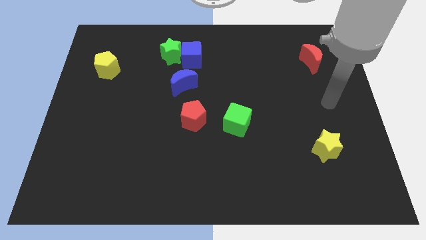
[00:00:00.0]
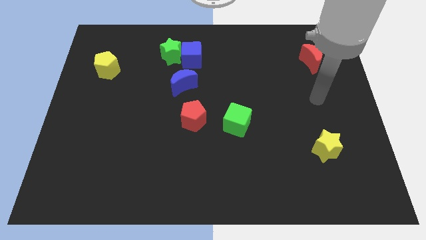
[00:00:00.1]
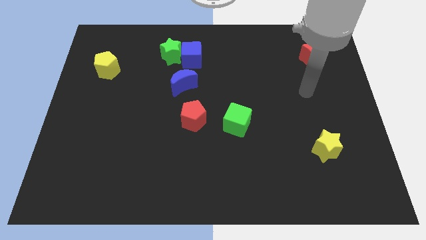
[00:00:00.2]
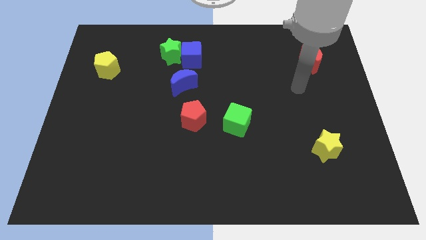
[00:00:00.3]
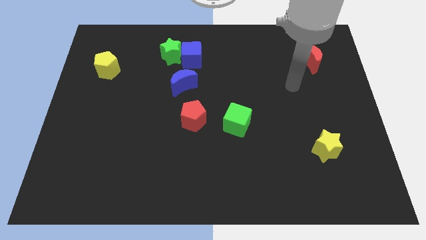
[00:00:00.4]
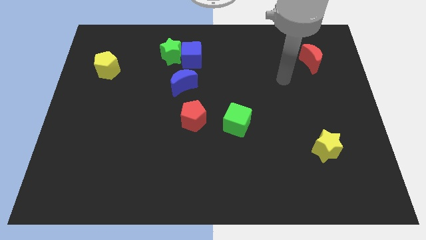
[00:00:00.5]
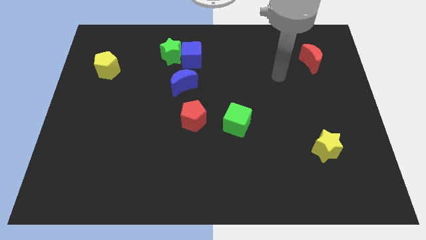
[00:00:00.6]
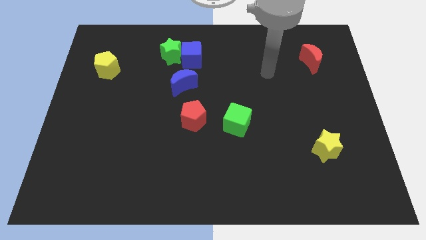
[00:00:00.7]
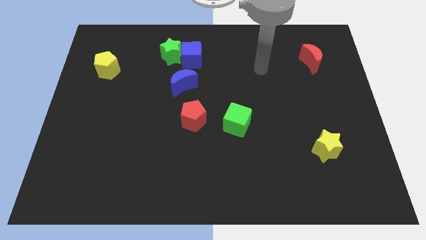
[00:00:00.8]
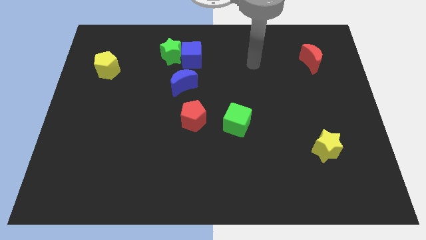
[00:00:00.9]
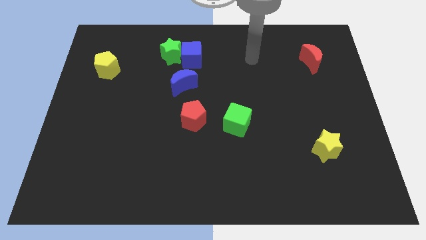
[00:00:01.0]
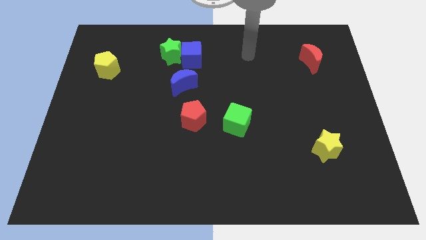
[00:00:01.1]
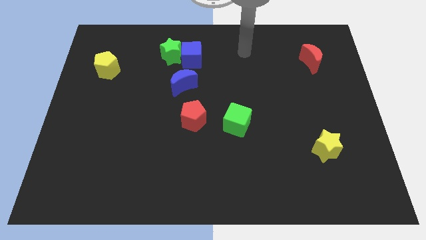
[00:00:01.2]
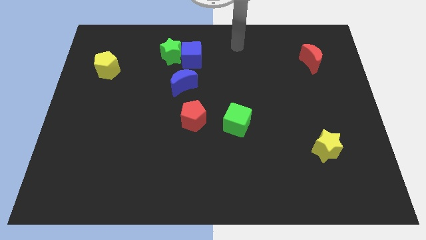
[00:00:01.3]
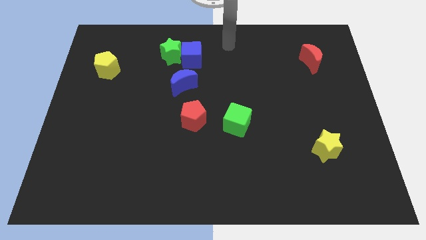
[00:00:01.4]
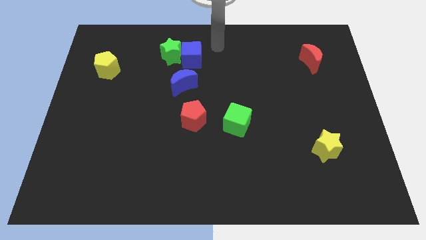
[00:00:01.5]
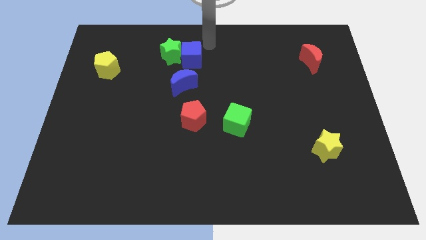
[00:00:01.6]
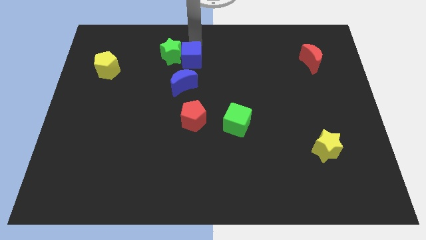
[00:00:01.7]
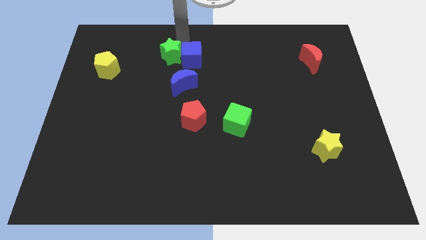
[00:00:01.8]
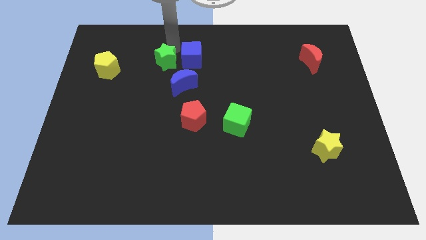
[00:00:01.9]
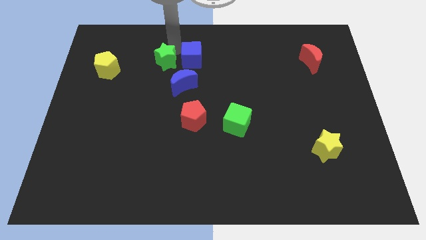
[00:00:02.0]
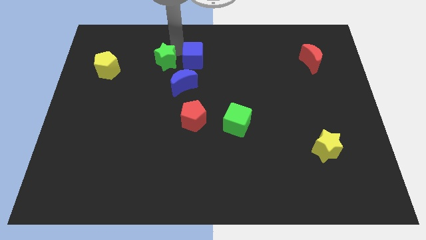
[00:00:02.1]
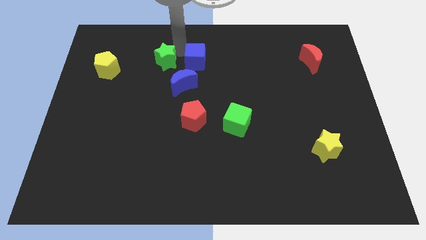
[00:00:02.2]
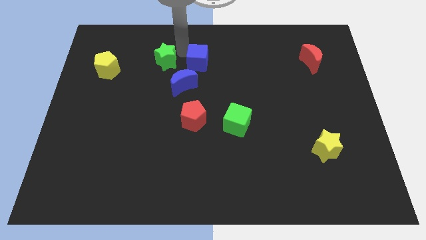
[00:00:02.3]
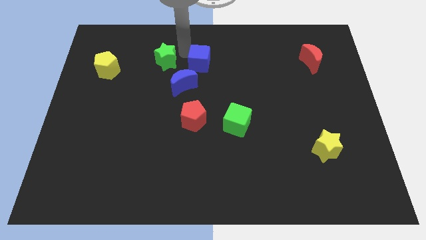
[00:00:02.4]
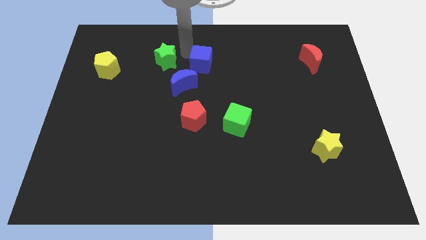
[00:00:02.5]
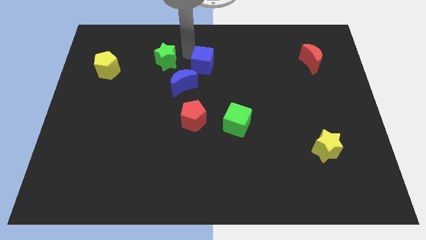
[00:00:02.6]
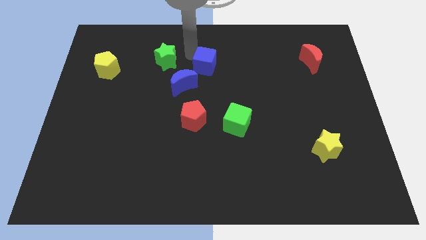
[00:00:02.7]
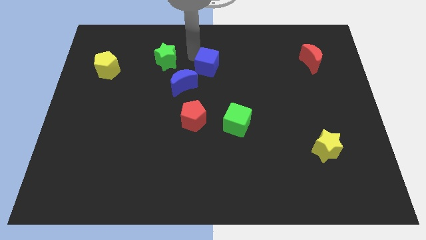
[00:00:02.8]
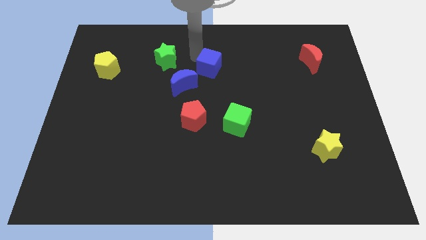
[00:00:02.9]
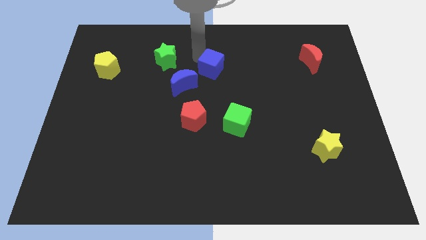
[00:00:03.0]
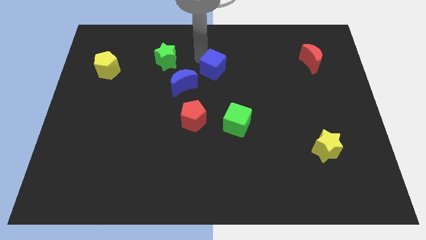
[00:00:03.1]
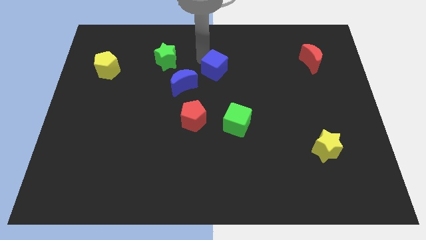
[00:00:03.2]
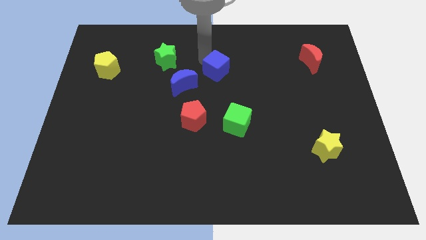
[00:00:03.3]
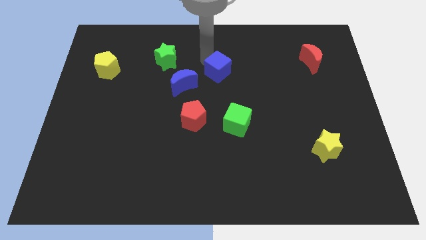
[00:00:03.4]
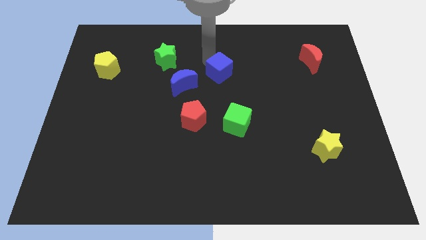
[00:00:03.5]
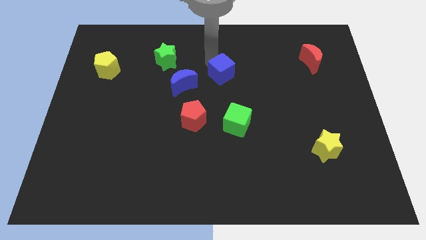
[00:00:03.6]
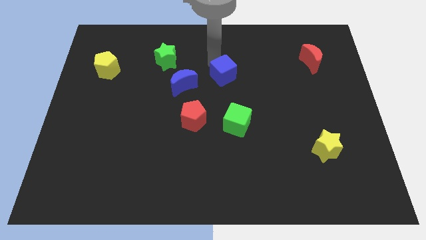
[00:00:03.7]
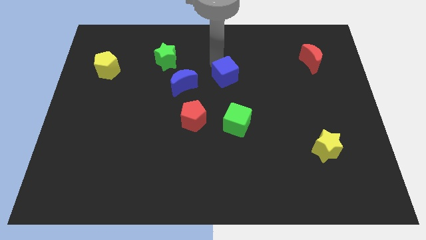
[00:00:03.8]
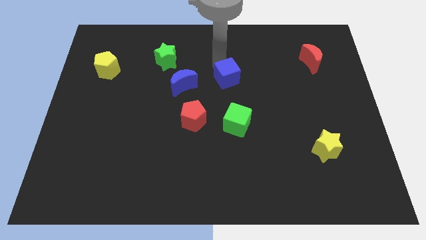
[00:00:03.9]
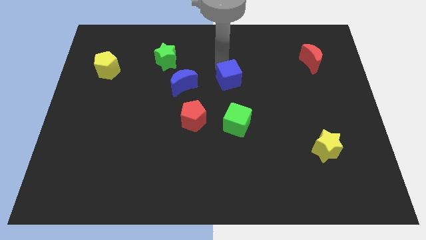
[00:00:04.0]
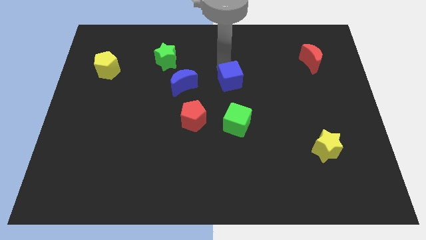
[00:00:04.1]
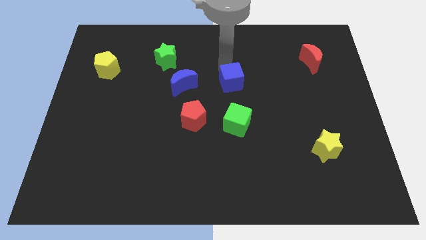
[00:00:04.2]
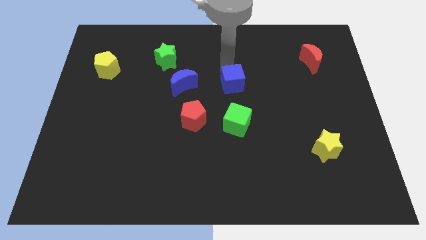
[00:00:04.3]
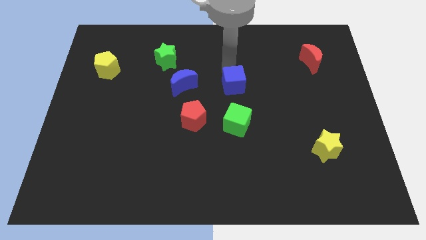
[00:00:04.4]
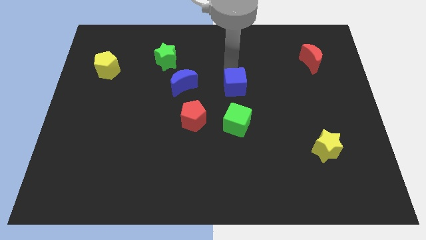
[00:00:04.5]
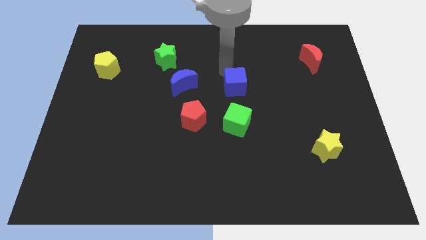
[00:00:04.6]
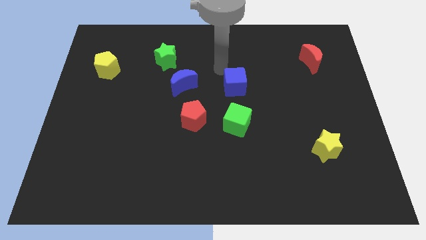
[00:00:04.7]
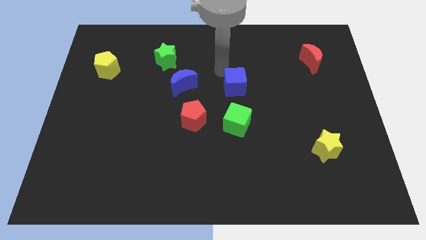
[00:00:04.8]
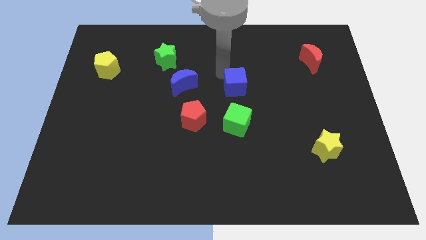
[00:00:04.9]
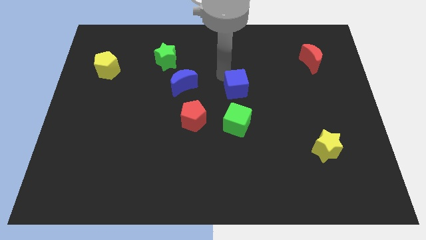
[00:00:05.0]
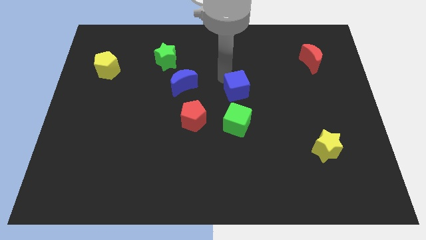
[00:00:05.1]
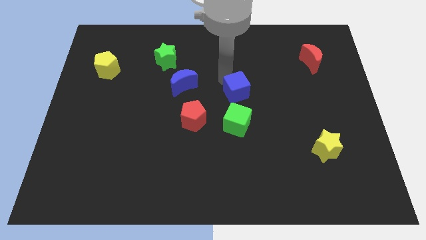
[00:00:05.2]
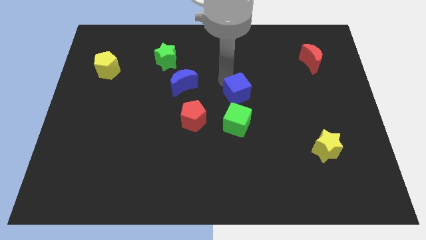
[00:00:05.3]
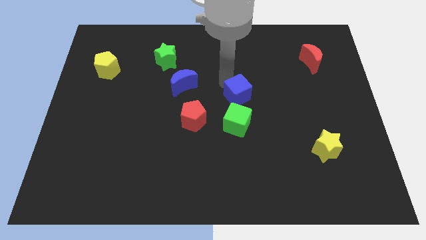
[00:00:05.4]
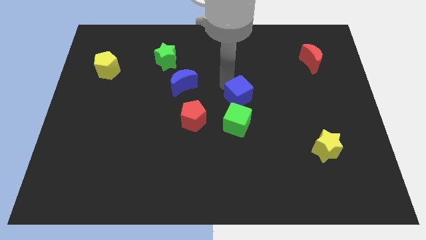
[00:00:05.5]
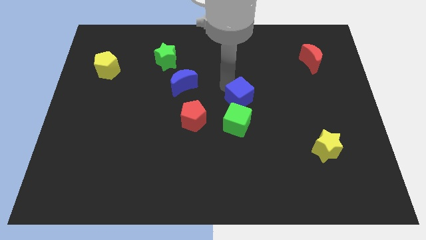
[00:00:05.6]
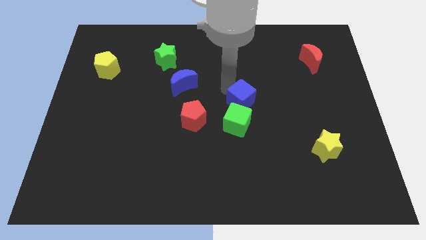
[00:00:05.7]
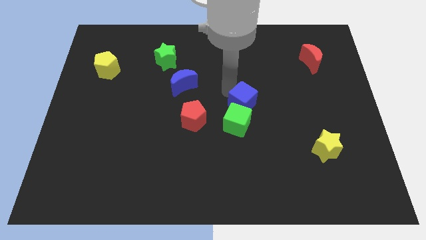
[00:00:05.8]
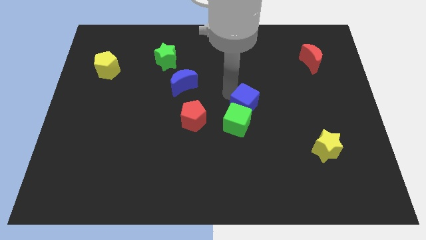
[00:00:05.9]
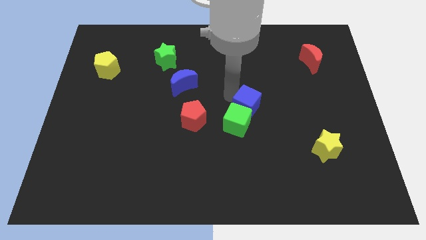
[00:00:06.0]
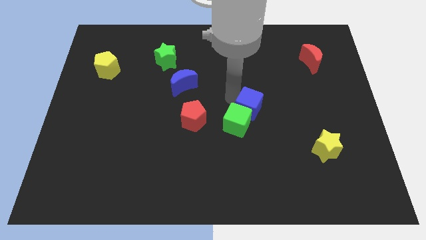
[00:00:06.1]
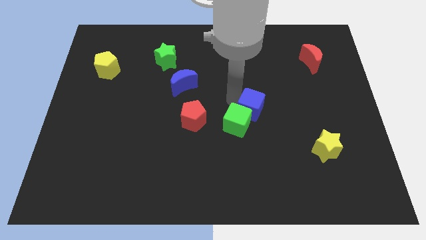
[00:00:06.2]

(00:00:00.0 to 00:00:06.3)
push the blue cube to the right of the green cube

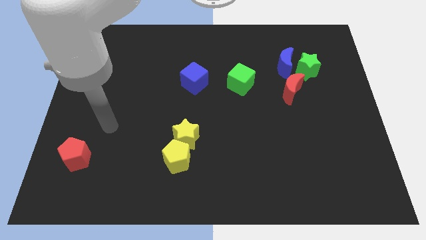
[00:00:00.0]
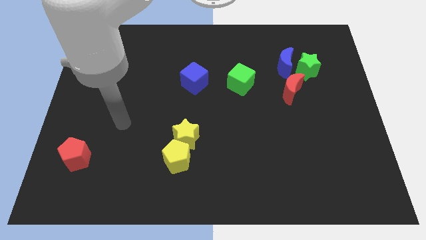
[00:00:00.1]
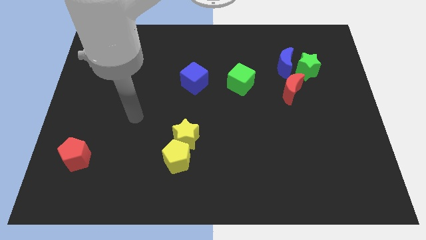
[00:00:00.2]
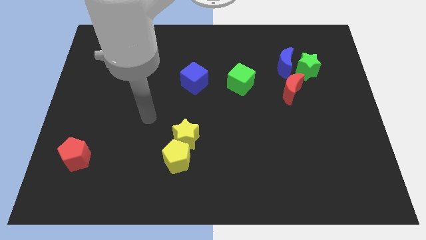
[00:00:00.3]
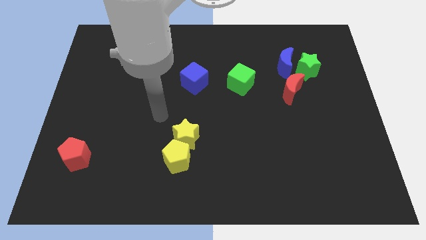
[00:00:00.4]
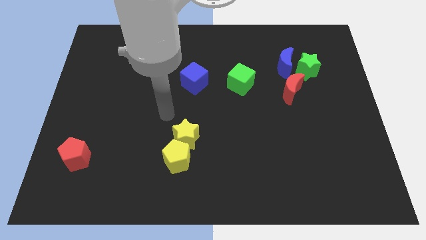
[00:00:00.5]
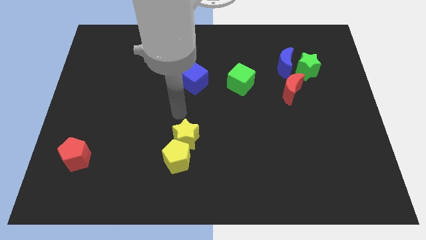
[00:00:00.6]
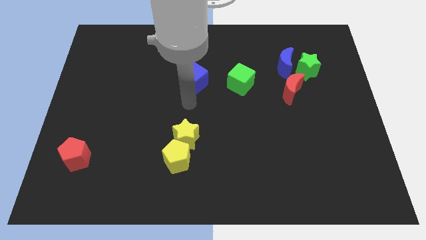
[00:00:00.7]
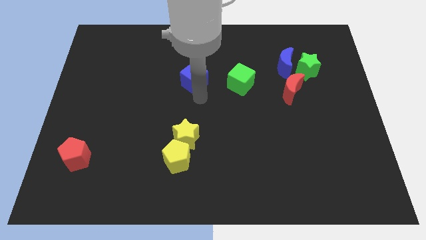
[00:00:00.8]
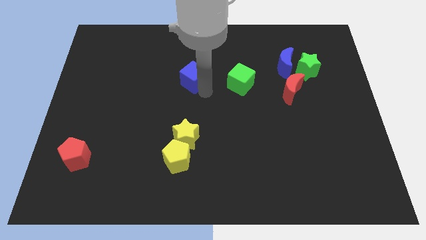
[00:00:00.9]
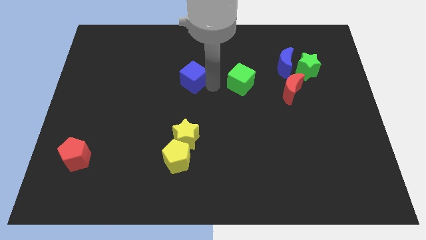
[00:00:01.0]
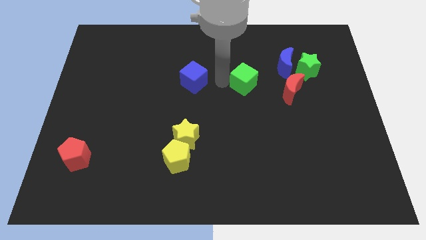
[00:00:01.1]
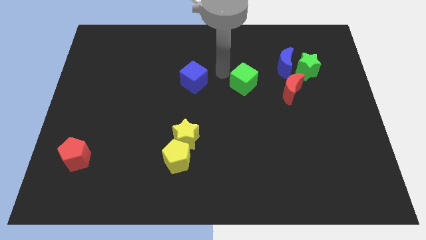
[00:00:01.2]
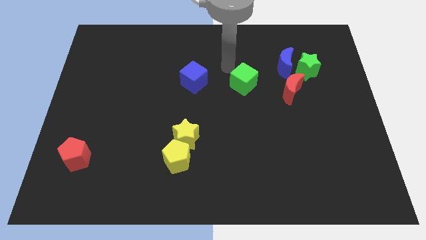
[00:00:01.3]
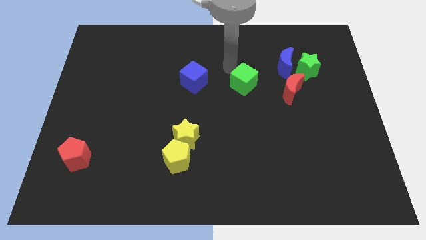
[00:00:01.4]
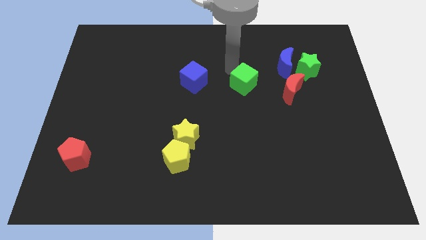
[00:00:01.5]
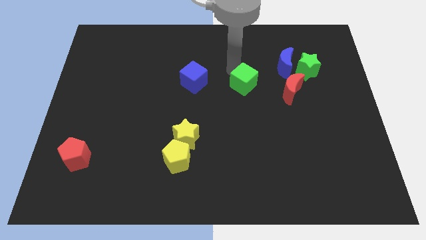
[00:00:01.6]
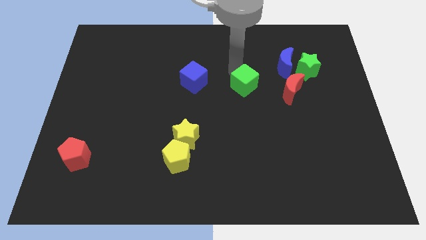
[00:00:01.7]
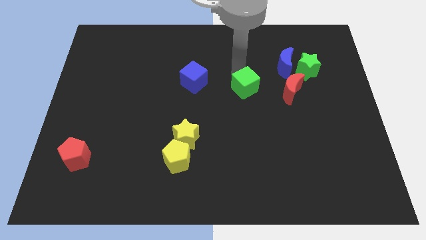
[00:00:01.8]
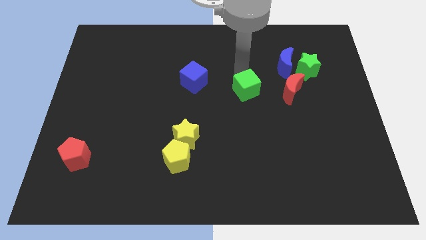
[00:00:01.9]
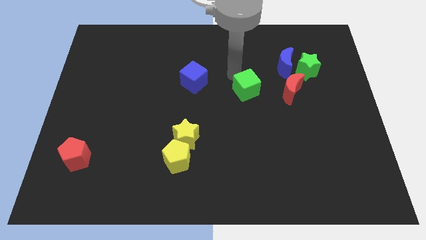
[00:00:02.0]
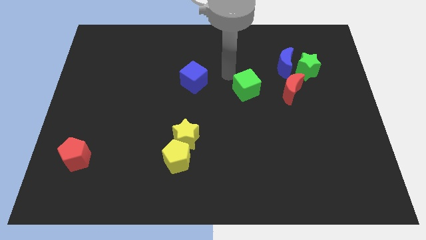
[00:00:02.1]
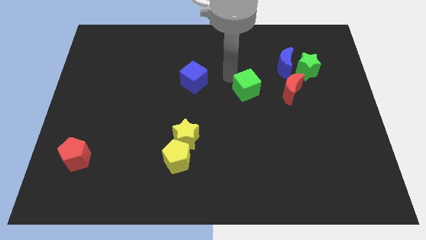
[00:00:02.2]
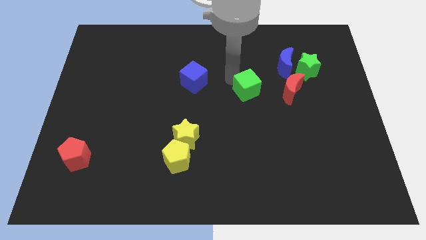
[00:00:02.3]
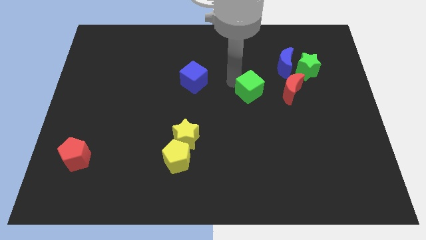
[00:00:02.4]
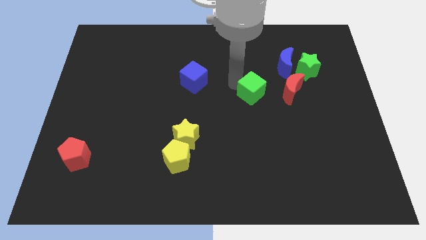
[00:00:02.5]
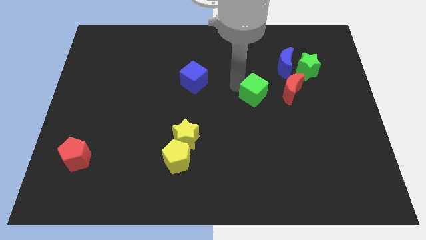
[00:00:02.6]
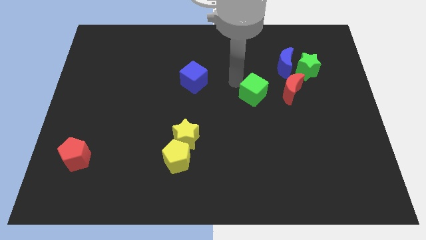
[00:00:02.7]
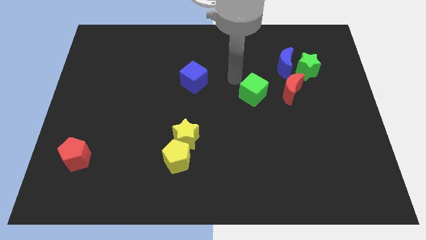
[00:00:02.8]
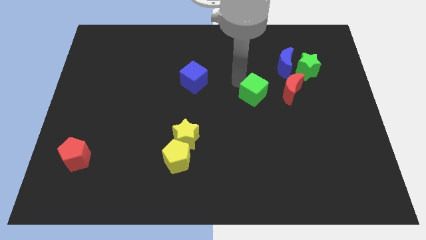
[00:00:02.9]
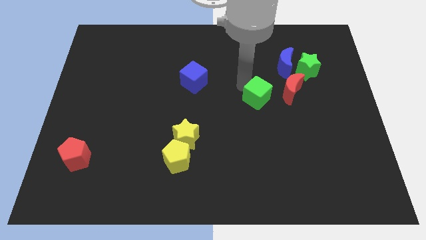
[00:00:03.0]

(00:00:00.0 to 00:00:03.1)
move the green cube diagonally down and to the left of the red moon
